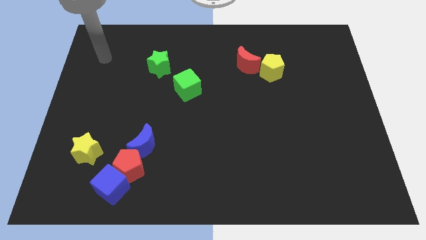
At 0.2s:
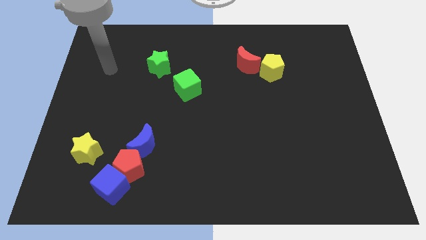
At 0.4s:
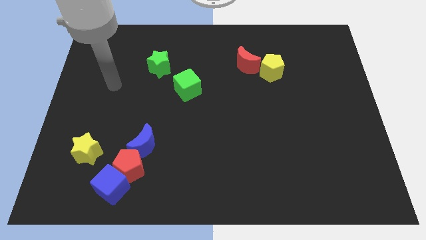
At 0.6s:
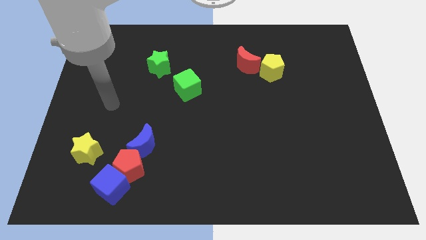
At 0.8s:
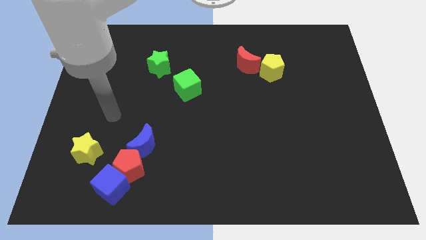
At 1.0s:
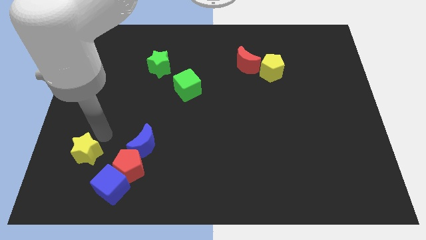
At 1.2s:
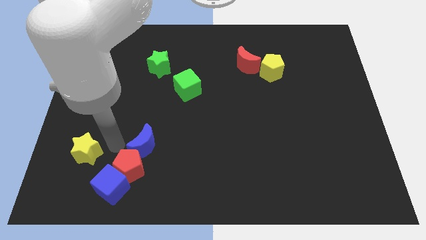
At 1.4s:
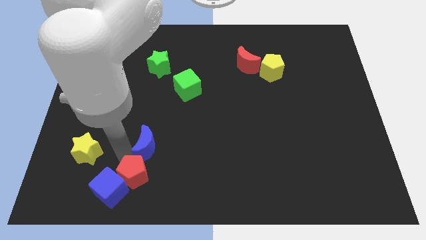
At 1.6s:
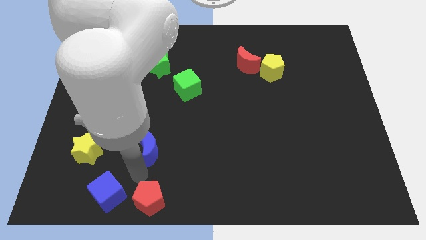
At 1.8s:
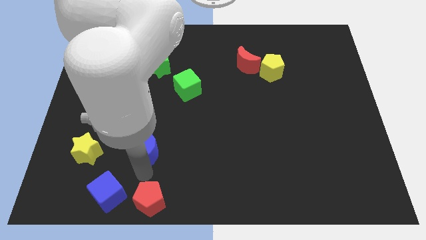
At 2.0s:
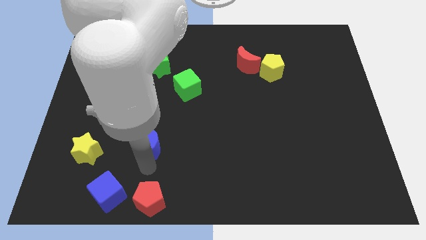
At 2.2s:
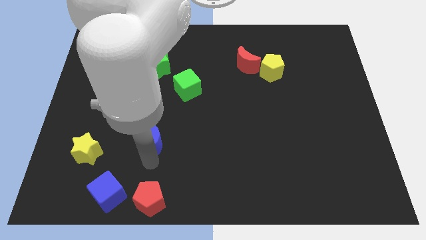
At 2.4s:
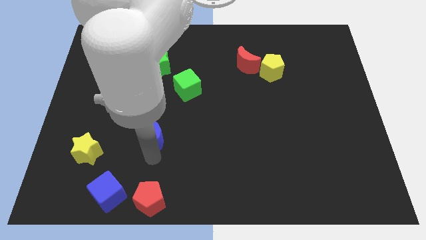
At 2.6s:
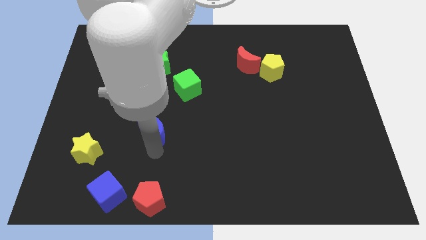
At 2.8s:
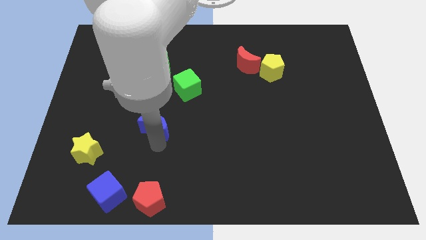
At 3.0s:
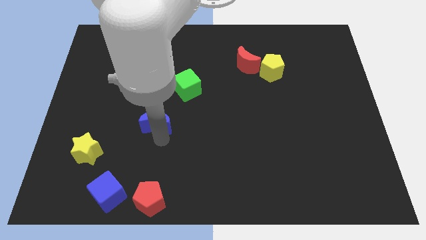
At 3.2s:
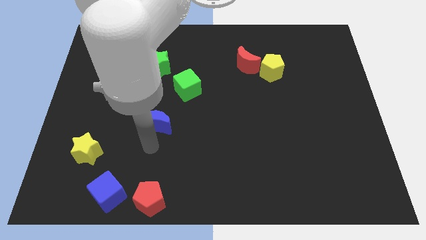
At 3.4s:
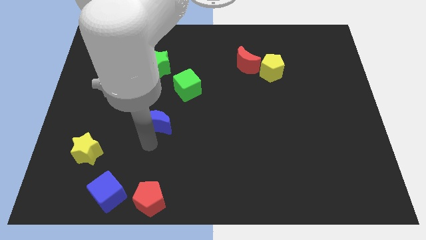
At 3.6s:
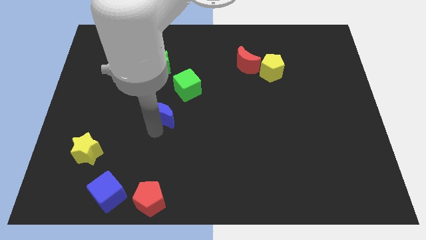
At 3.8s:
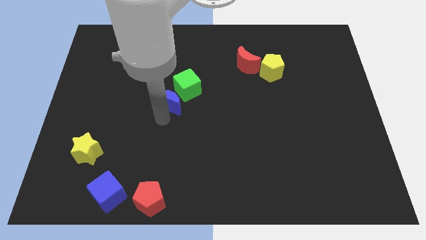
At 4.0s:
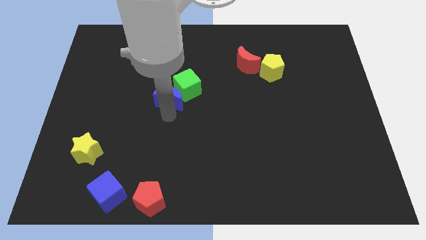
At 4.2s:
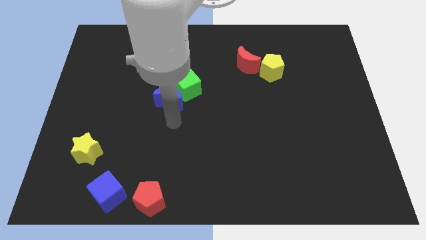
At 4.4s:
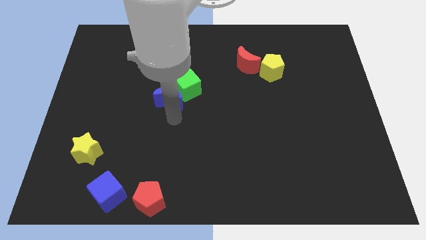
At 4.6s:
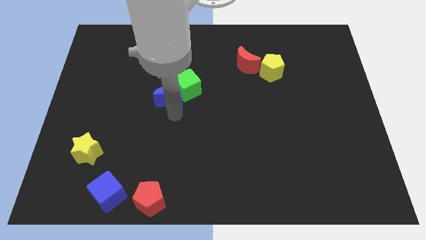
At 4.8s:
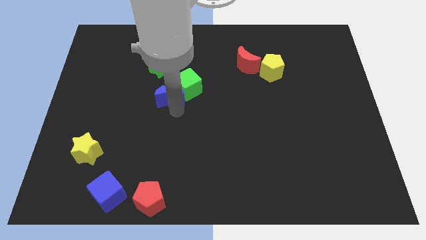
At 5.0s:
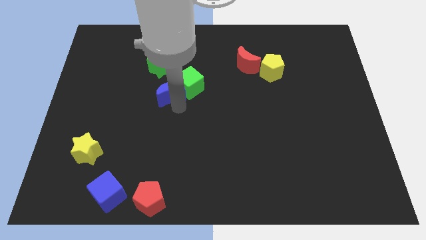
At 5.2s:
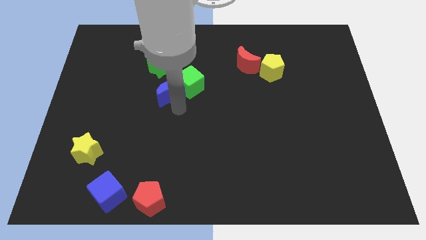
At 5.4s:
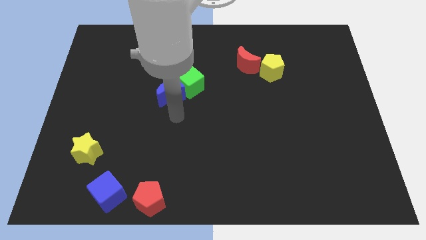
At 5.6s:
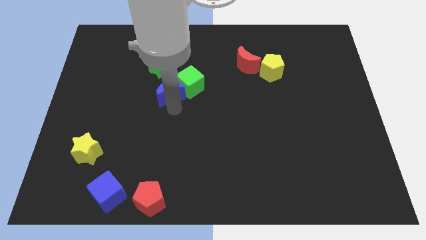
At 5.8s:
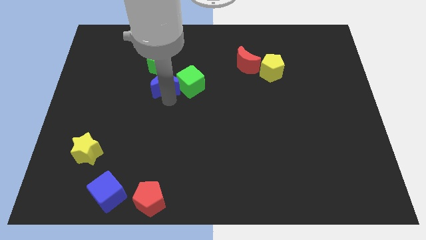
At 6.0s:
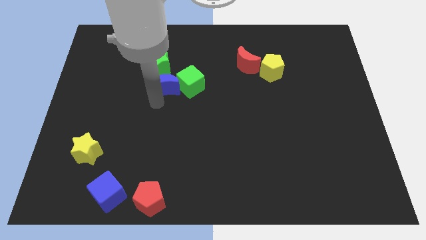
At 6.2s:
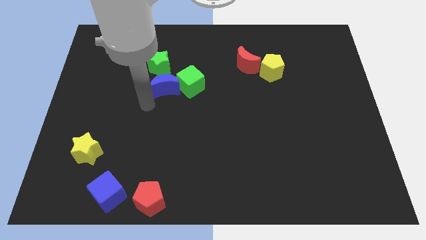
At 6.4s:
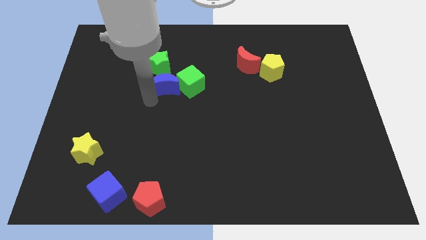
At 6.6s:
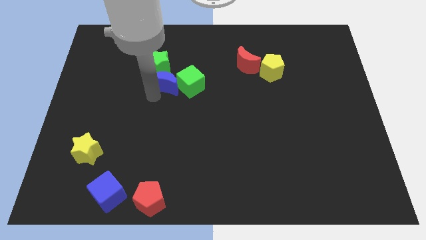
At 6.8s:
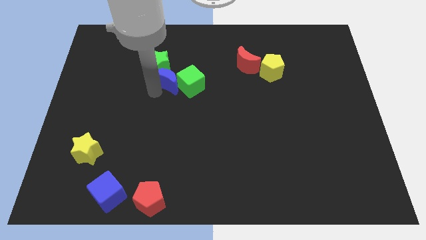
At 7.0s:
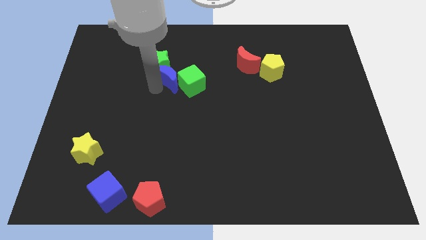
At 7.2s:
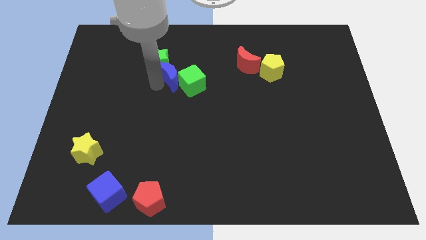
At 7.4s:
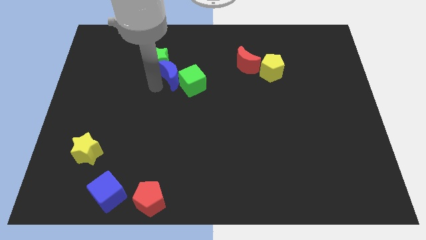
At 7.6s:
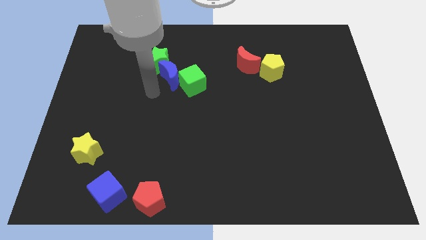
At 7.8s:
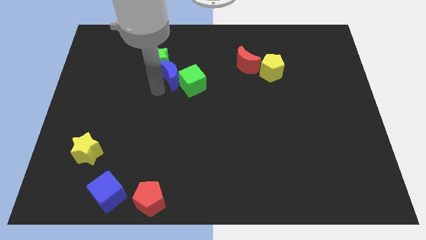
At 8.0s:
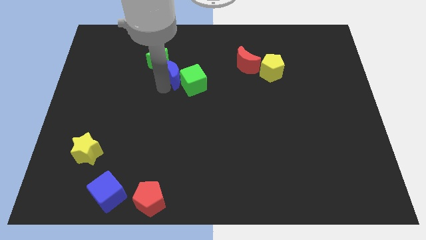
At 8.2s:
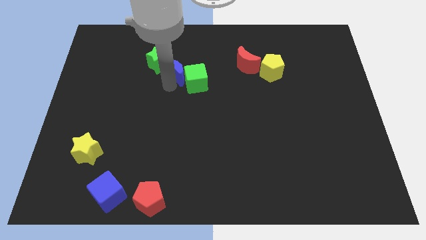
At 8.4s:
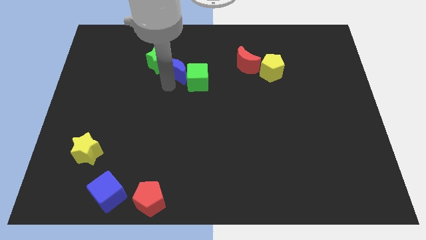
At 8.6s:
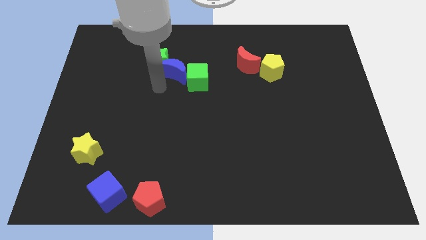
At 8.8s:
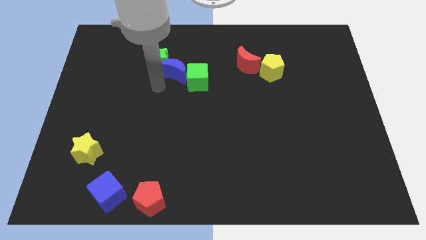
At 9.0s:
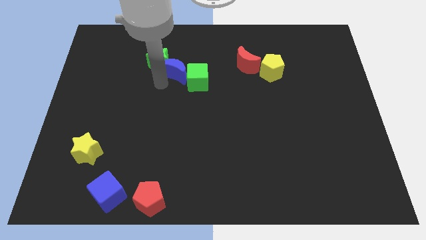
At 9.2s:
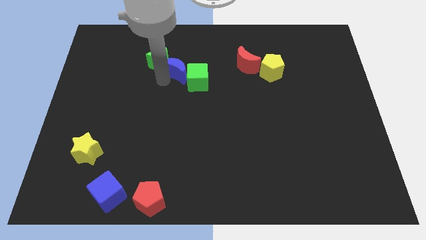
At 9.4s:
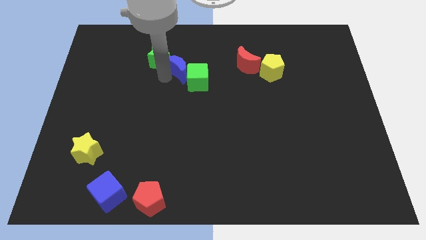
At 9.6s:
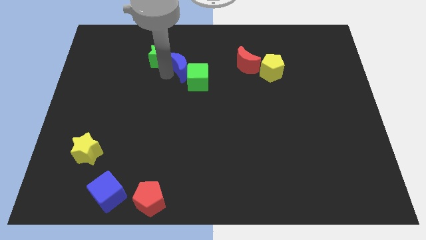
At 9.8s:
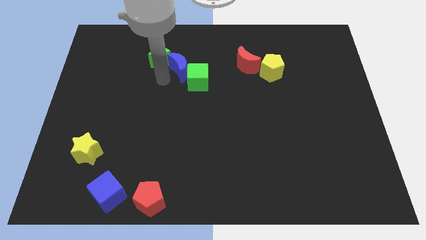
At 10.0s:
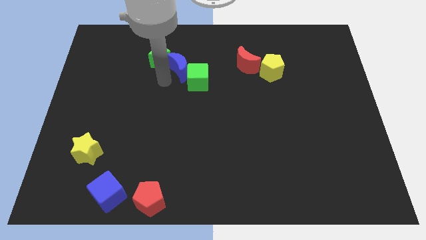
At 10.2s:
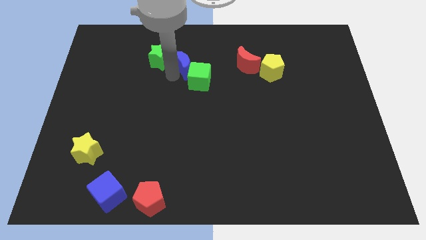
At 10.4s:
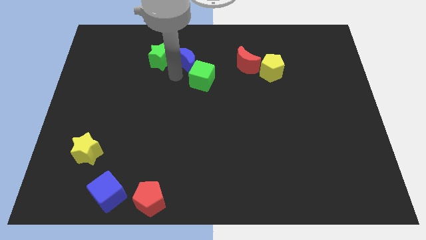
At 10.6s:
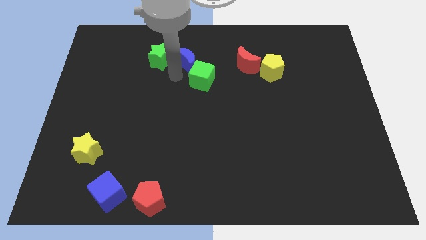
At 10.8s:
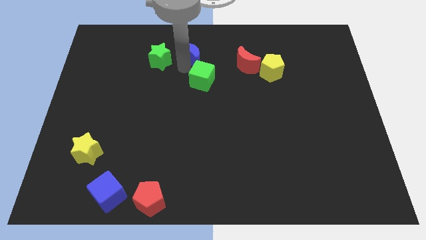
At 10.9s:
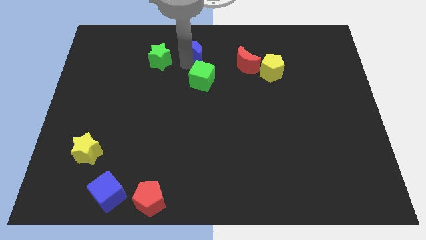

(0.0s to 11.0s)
move the blue moon to the towards your base

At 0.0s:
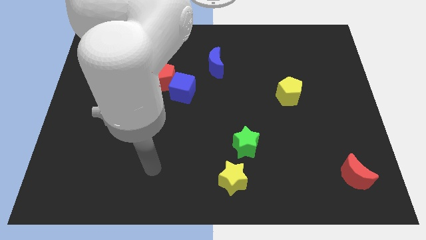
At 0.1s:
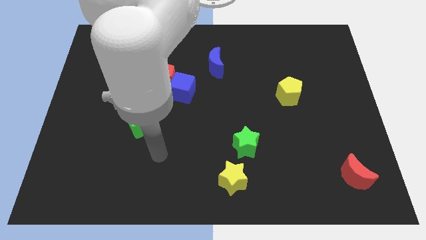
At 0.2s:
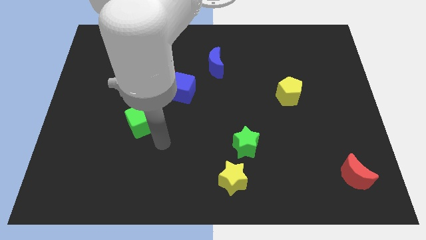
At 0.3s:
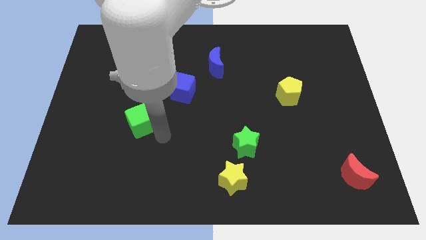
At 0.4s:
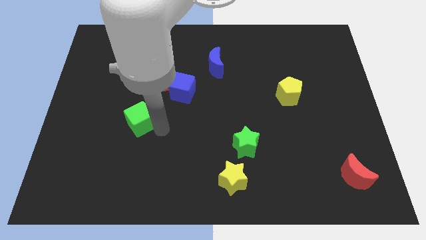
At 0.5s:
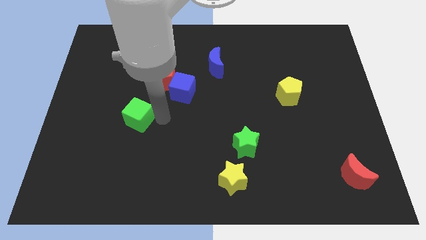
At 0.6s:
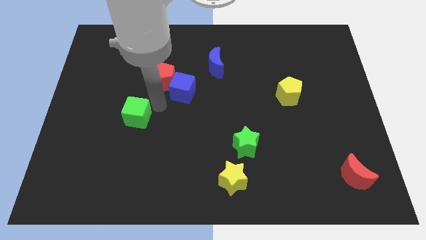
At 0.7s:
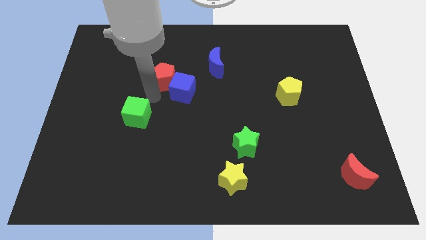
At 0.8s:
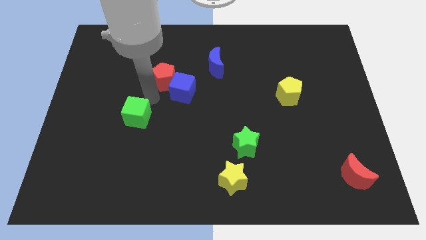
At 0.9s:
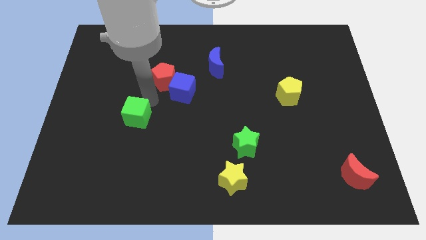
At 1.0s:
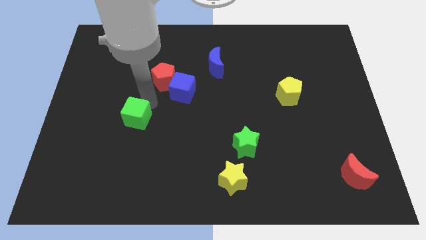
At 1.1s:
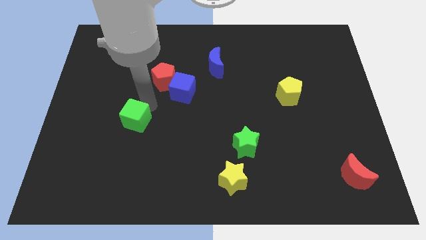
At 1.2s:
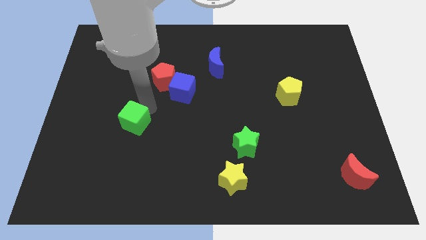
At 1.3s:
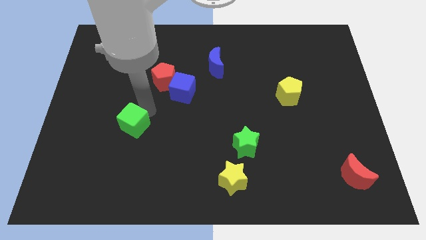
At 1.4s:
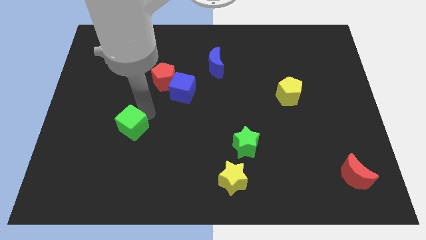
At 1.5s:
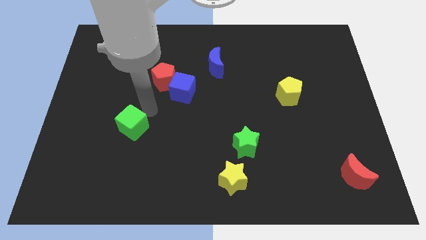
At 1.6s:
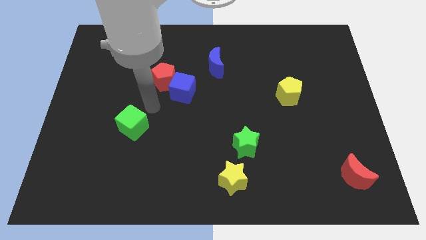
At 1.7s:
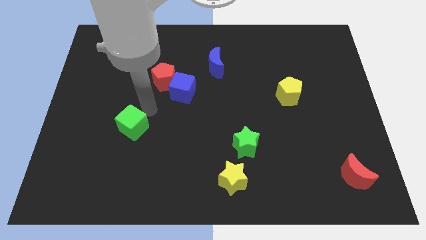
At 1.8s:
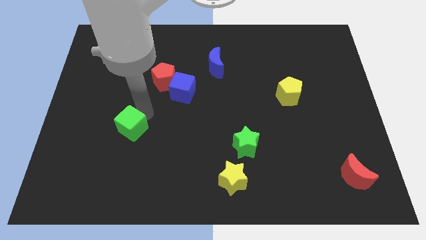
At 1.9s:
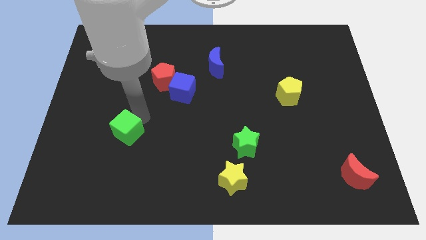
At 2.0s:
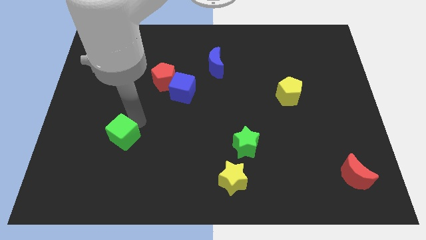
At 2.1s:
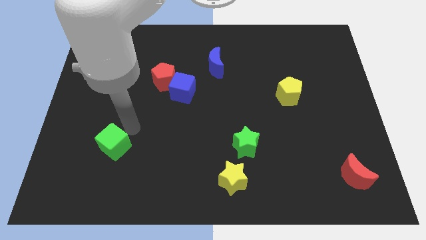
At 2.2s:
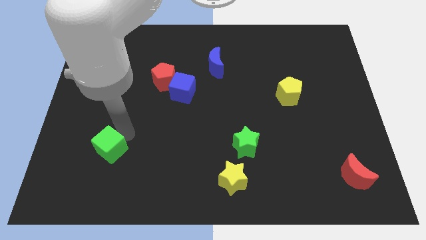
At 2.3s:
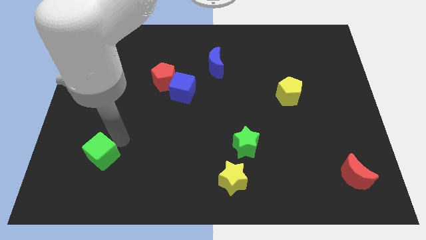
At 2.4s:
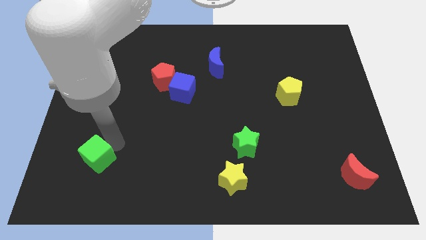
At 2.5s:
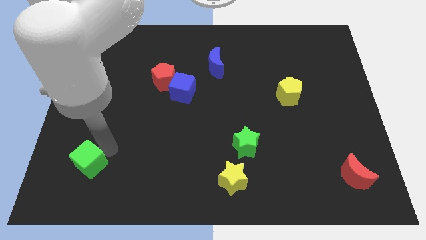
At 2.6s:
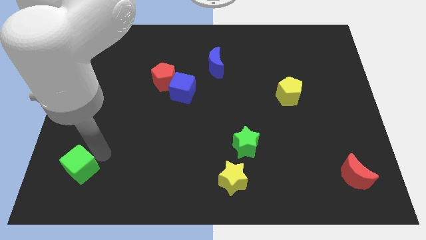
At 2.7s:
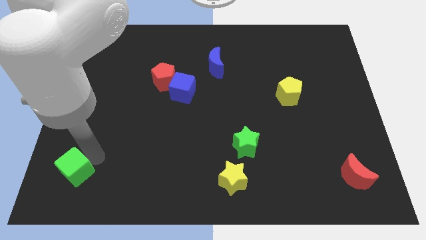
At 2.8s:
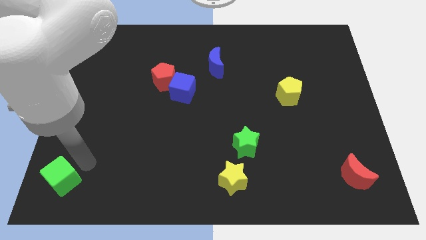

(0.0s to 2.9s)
slide the green cube to the bottom left corner
